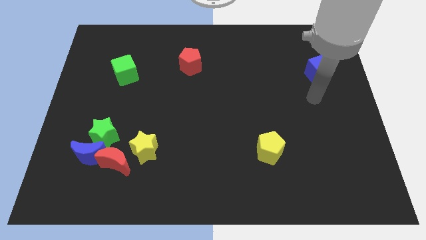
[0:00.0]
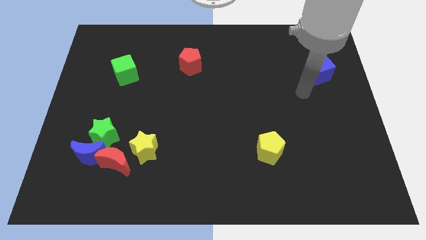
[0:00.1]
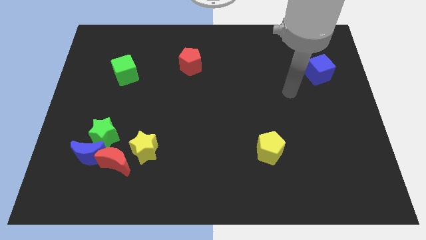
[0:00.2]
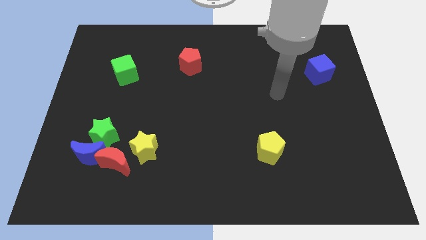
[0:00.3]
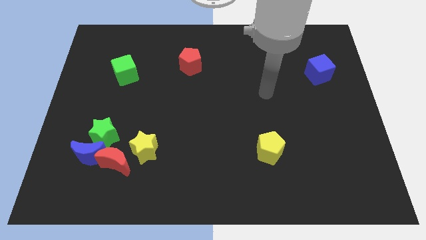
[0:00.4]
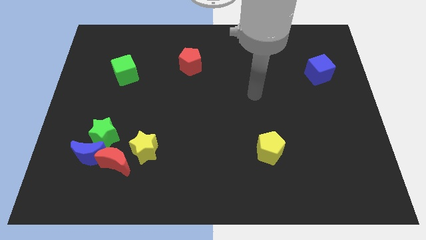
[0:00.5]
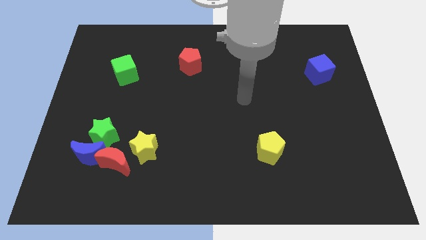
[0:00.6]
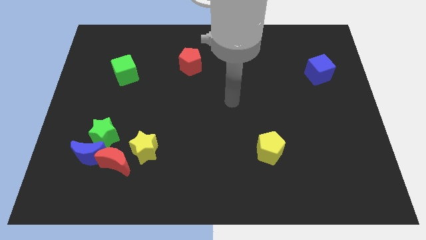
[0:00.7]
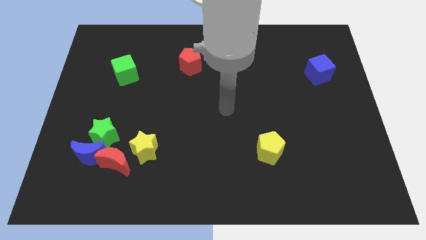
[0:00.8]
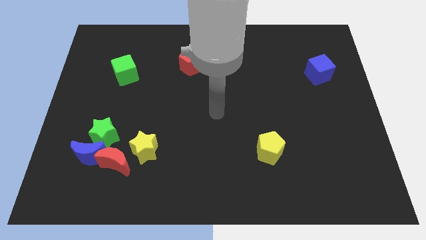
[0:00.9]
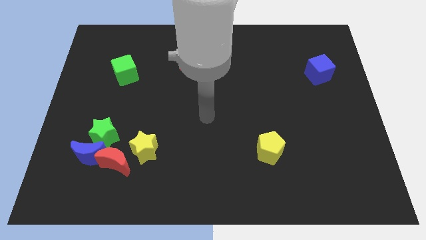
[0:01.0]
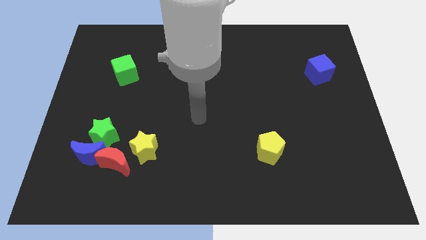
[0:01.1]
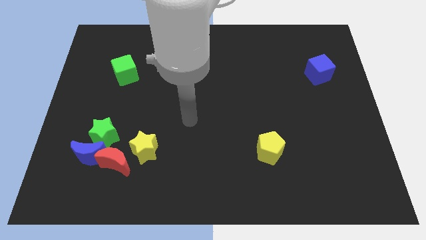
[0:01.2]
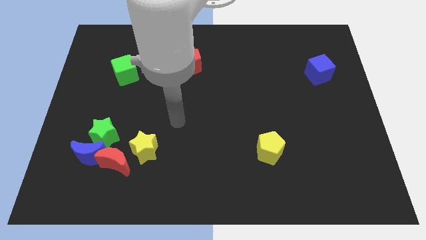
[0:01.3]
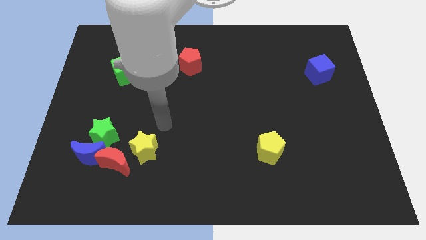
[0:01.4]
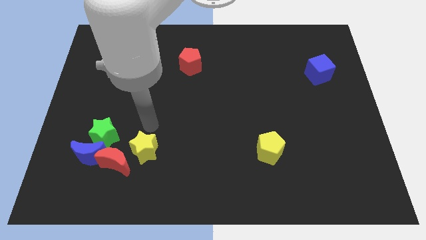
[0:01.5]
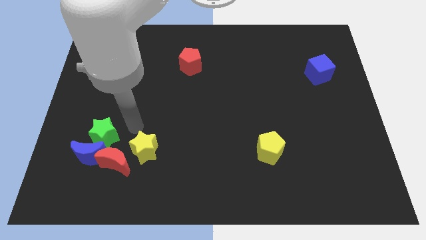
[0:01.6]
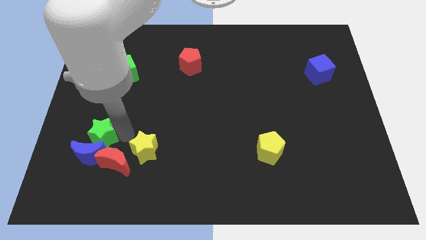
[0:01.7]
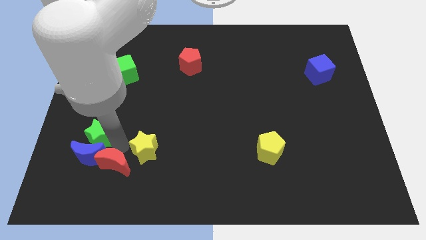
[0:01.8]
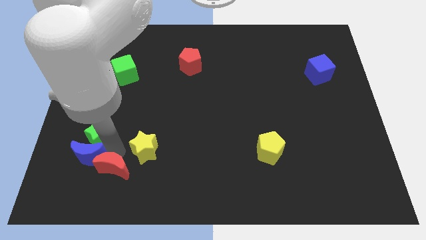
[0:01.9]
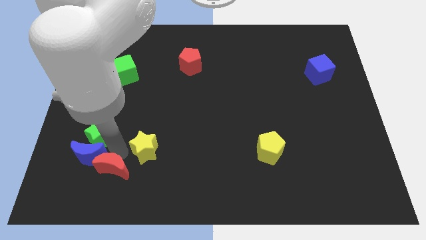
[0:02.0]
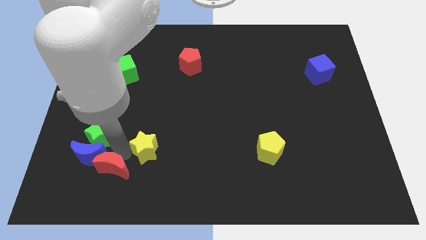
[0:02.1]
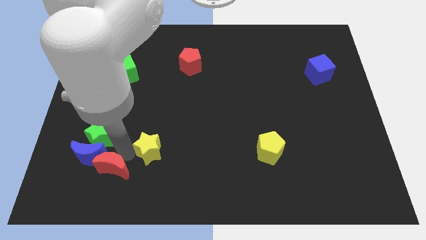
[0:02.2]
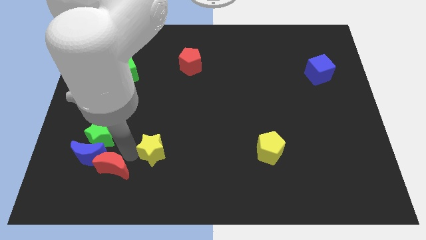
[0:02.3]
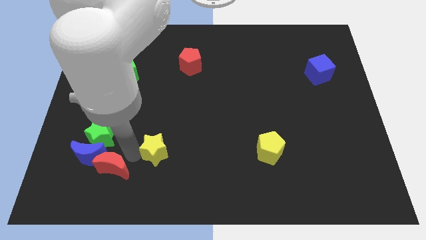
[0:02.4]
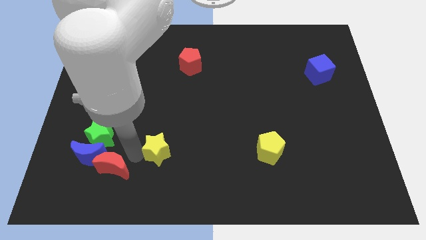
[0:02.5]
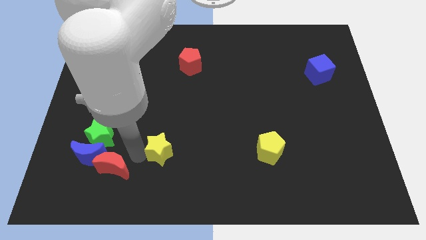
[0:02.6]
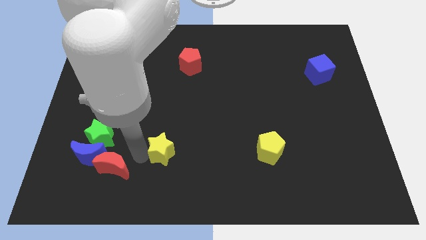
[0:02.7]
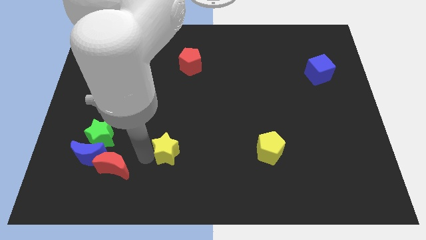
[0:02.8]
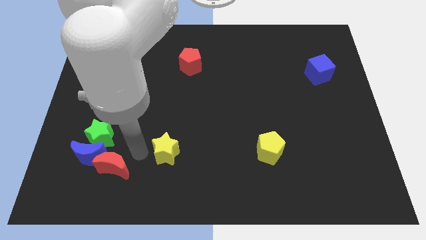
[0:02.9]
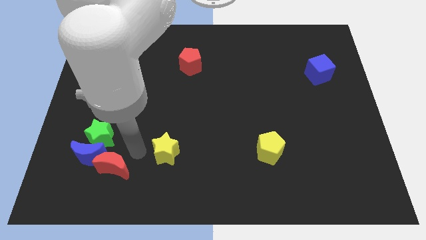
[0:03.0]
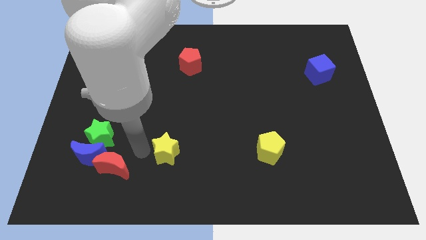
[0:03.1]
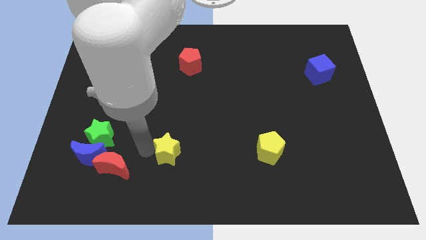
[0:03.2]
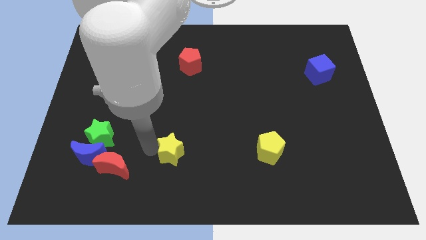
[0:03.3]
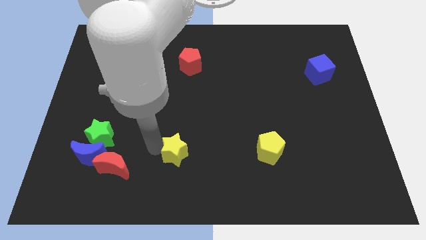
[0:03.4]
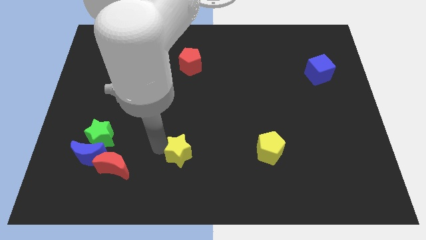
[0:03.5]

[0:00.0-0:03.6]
slightly push the yellow star right

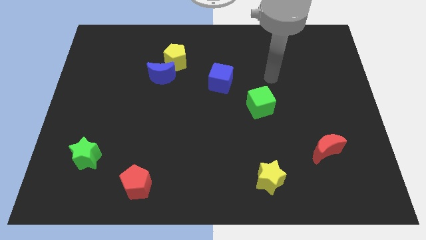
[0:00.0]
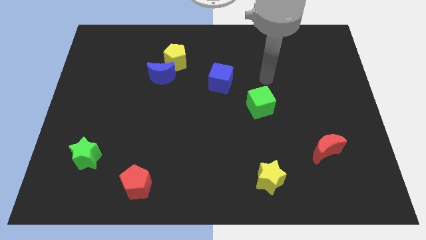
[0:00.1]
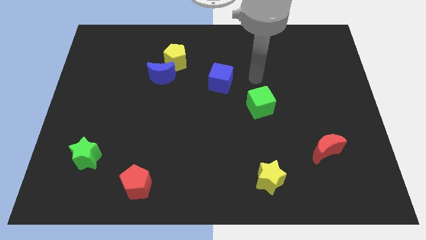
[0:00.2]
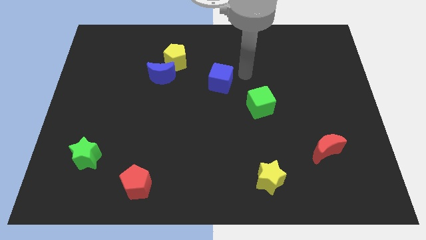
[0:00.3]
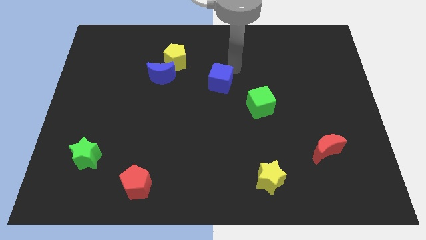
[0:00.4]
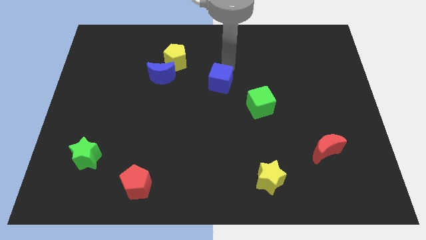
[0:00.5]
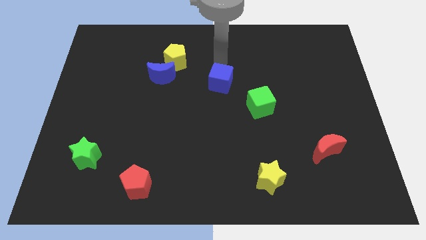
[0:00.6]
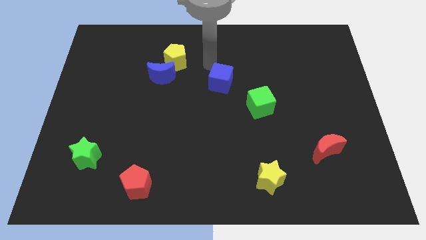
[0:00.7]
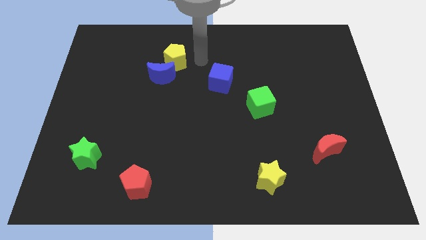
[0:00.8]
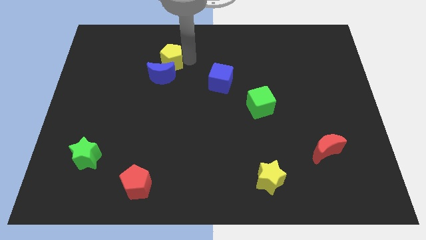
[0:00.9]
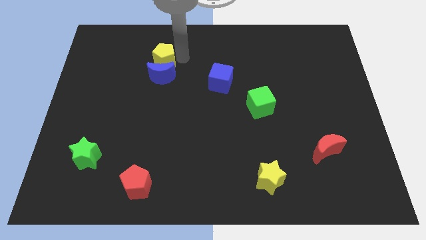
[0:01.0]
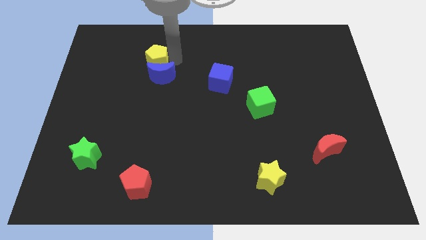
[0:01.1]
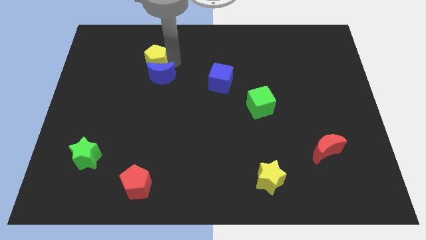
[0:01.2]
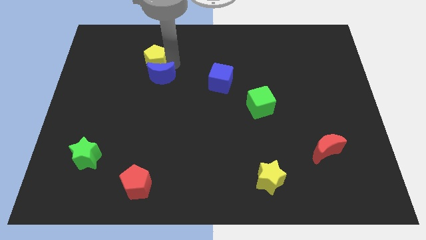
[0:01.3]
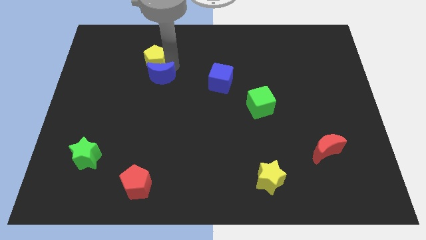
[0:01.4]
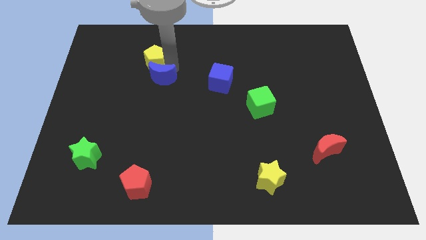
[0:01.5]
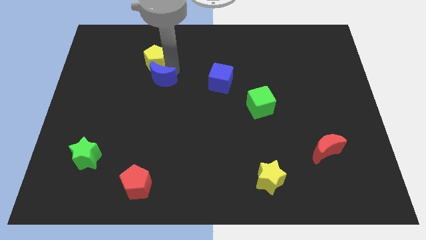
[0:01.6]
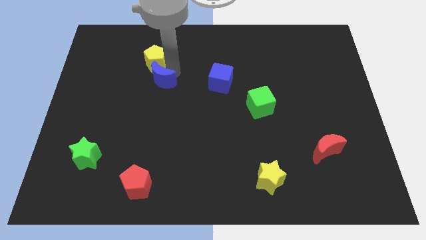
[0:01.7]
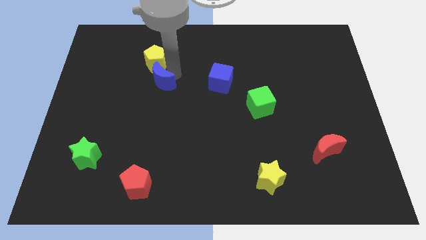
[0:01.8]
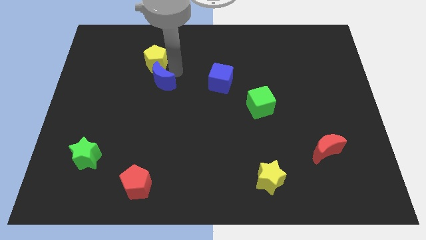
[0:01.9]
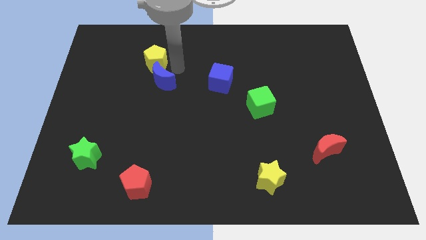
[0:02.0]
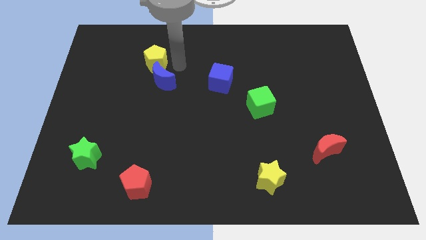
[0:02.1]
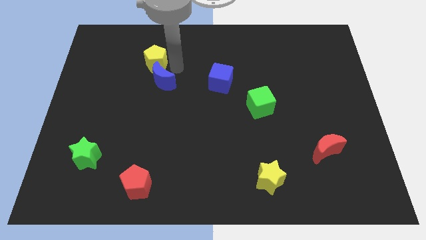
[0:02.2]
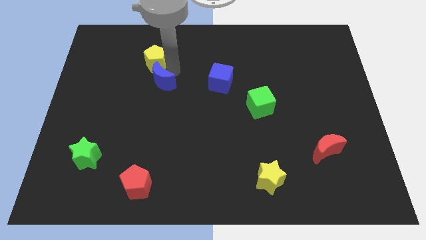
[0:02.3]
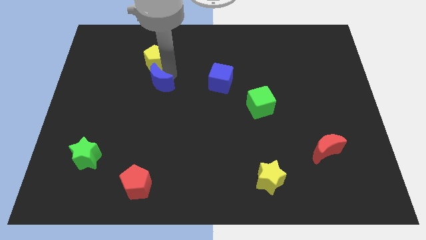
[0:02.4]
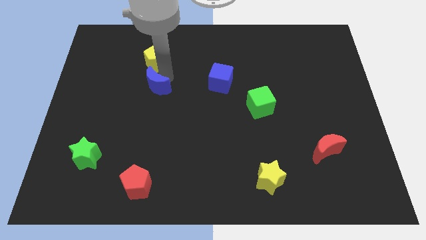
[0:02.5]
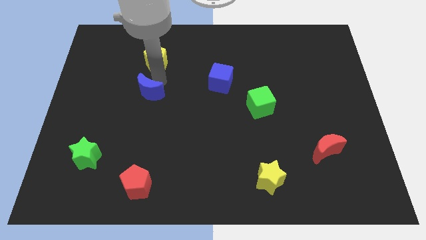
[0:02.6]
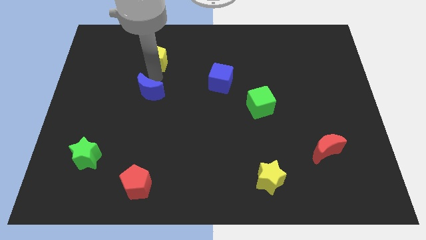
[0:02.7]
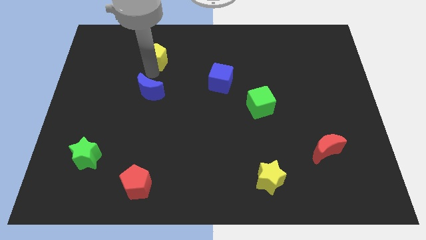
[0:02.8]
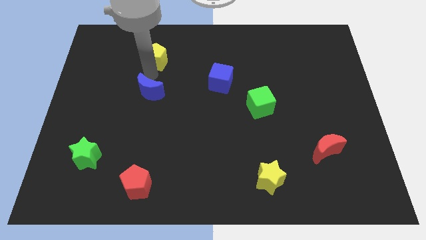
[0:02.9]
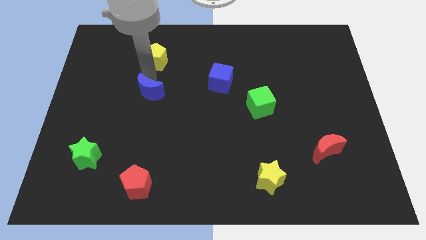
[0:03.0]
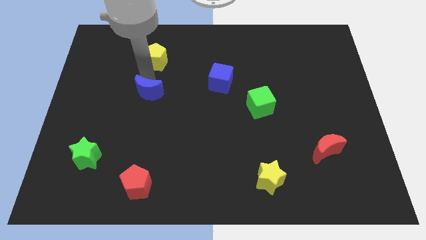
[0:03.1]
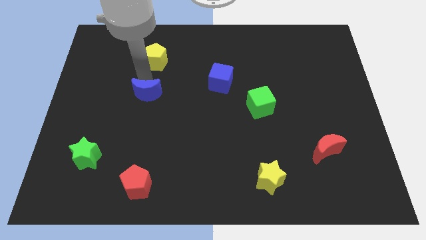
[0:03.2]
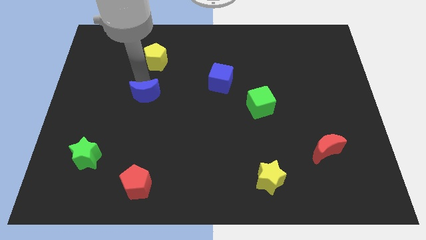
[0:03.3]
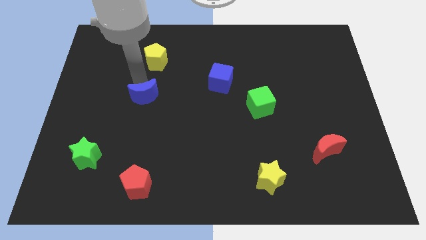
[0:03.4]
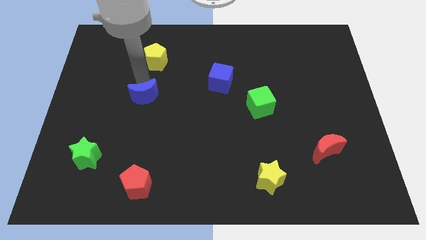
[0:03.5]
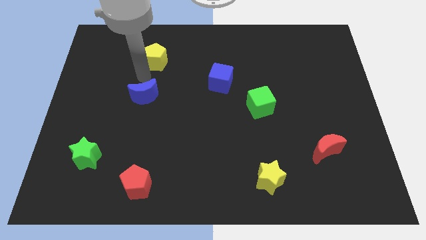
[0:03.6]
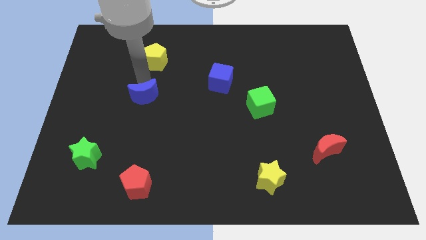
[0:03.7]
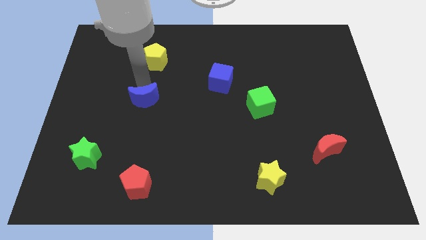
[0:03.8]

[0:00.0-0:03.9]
slightly move the blue moon downwards

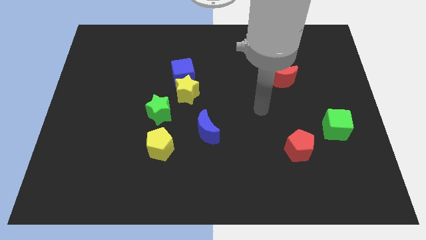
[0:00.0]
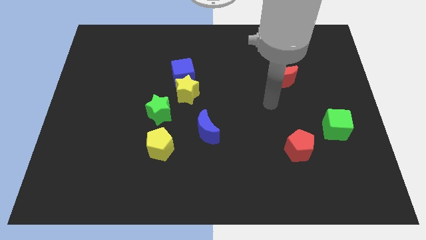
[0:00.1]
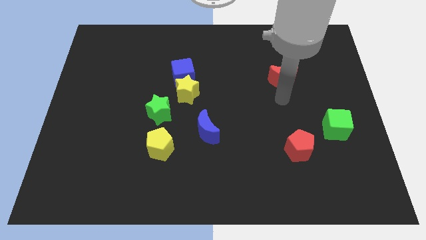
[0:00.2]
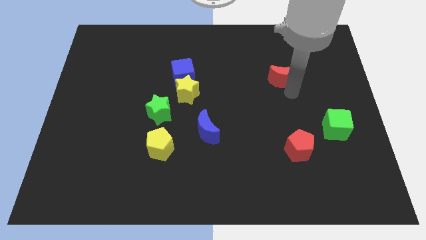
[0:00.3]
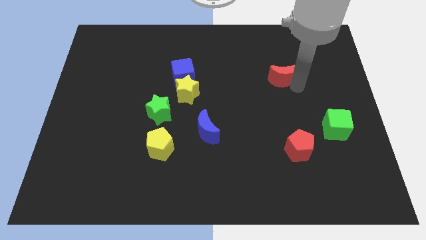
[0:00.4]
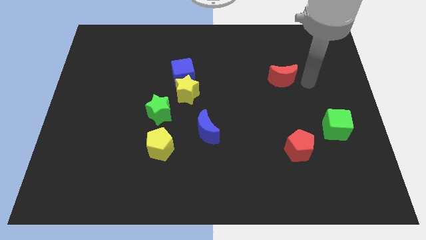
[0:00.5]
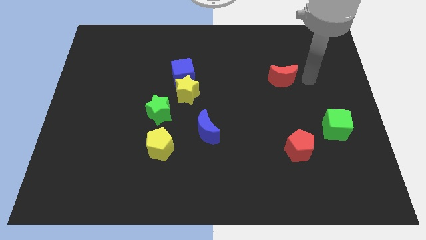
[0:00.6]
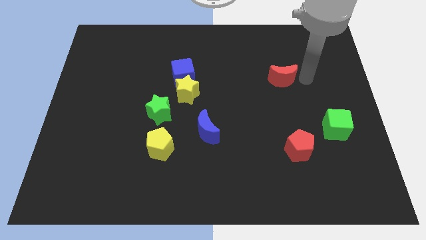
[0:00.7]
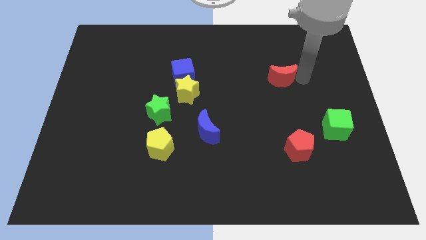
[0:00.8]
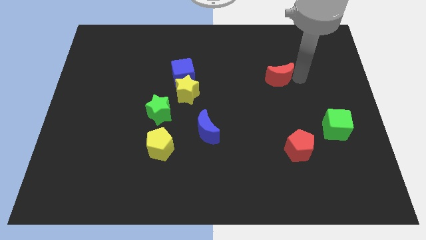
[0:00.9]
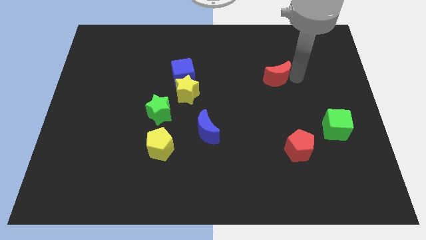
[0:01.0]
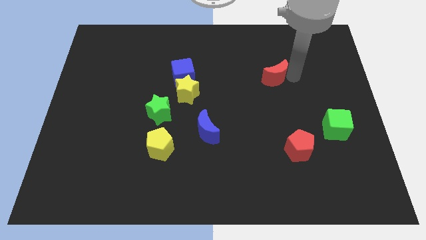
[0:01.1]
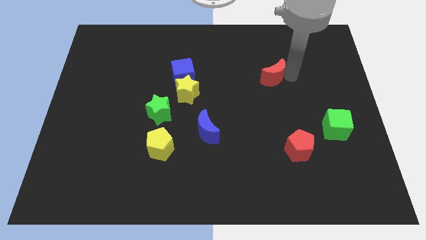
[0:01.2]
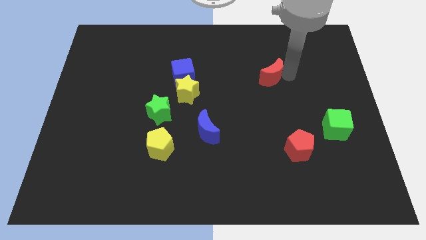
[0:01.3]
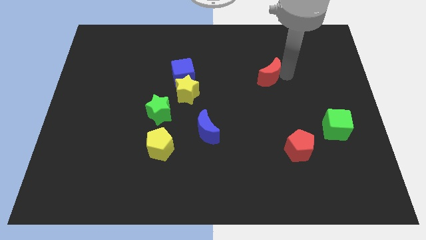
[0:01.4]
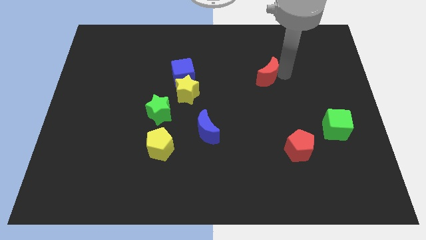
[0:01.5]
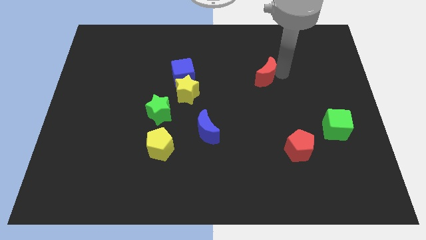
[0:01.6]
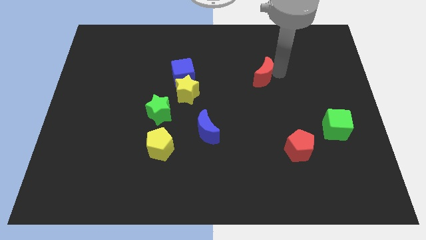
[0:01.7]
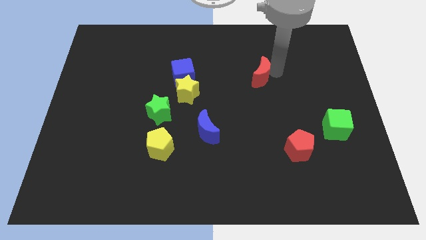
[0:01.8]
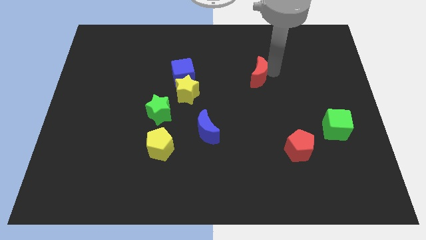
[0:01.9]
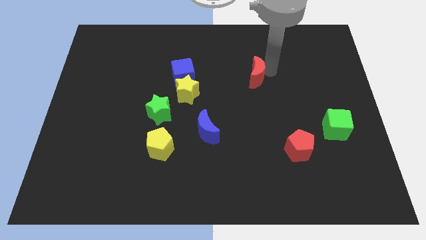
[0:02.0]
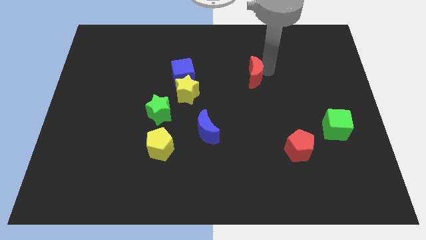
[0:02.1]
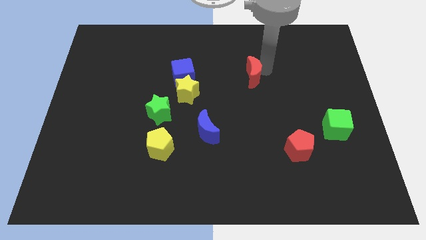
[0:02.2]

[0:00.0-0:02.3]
slightly push the red moon left
